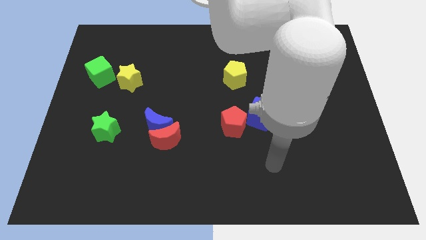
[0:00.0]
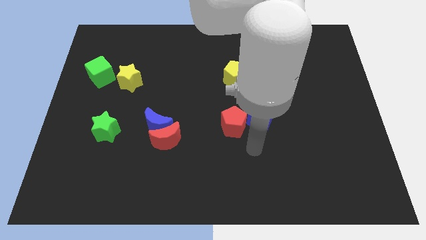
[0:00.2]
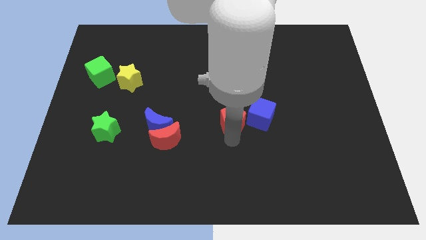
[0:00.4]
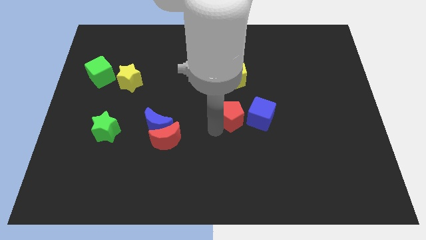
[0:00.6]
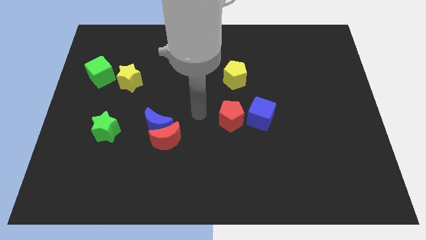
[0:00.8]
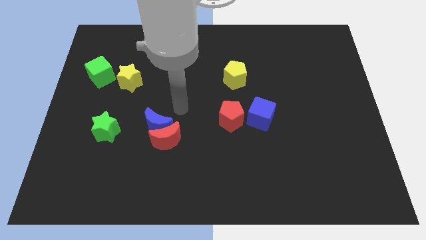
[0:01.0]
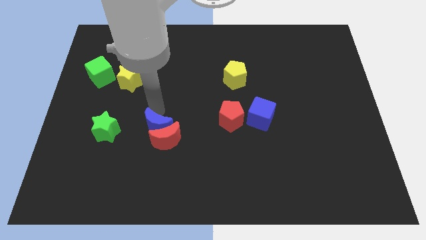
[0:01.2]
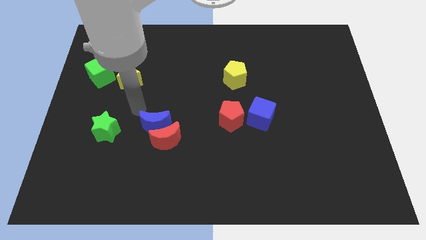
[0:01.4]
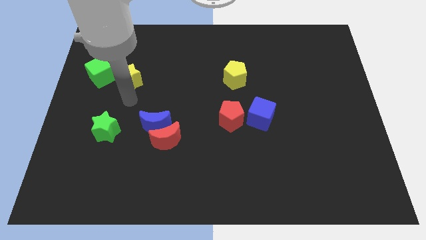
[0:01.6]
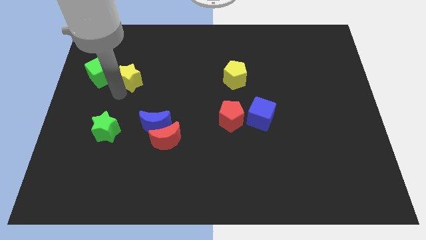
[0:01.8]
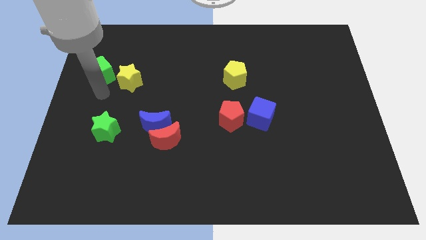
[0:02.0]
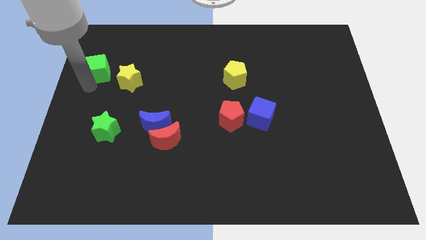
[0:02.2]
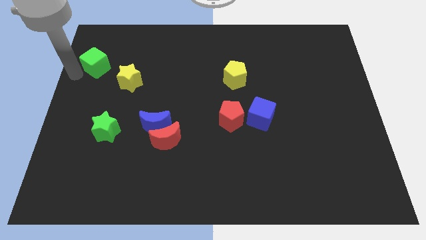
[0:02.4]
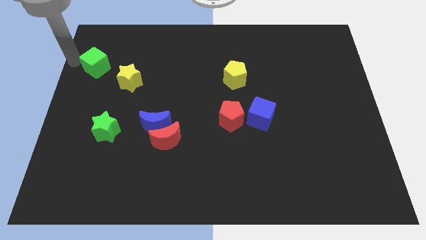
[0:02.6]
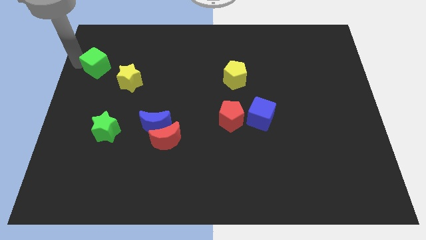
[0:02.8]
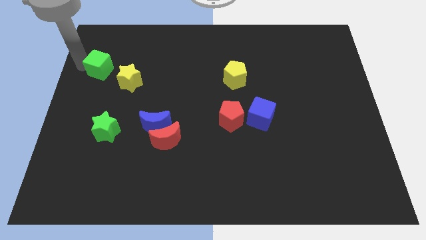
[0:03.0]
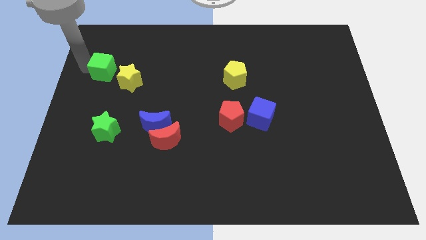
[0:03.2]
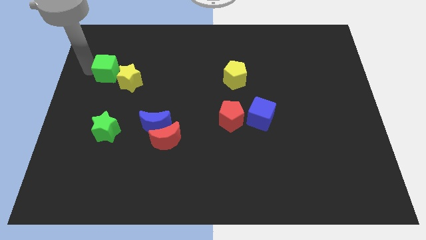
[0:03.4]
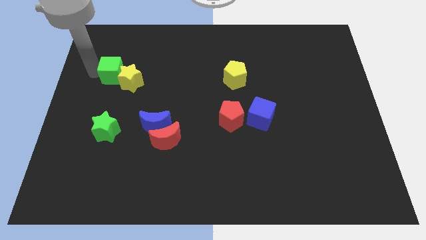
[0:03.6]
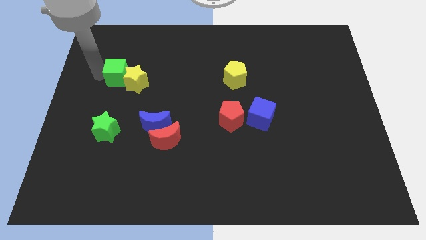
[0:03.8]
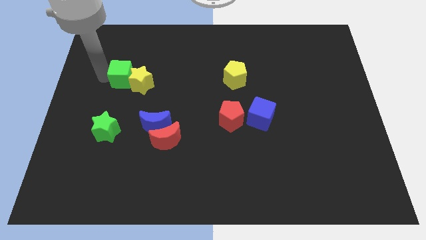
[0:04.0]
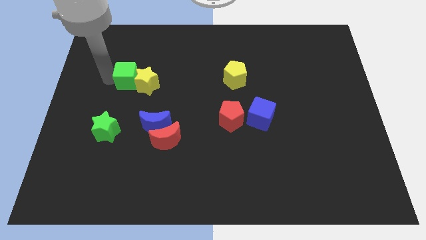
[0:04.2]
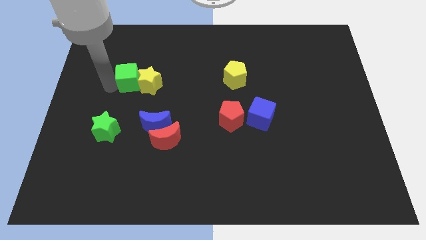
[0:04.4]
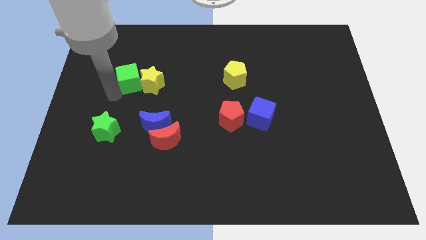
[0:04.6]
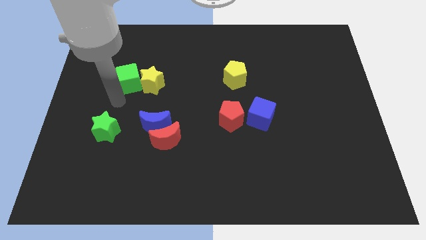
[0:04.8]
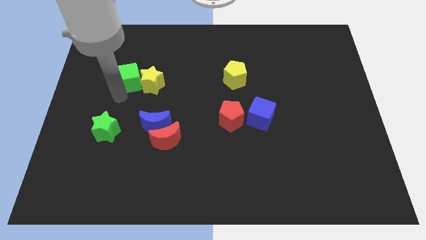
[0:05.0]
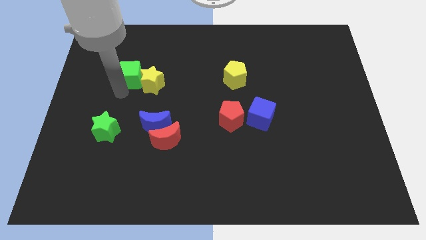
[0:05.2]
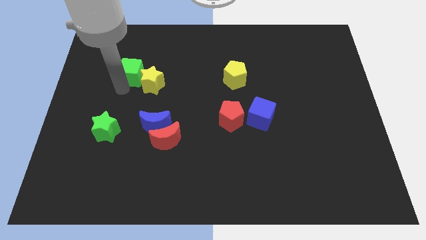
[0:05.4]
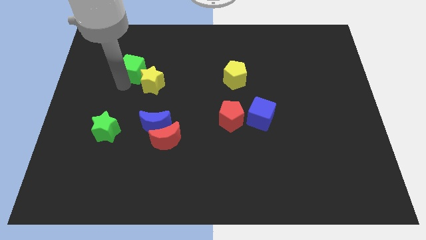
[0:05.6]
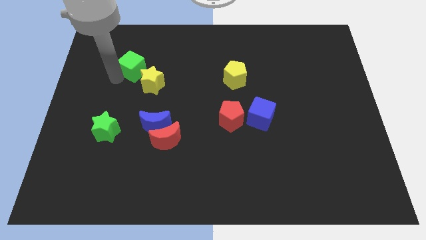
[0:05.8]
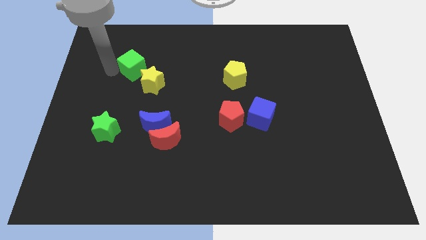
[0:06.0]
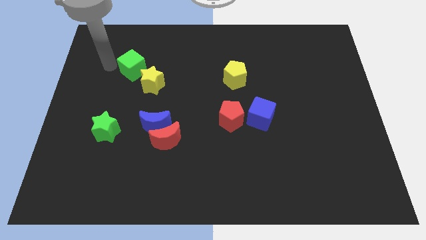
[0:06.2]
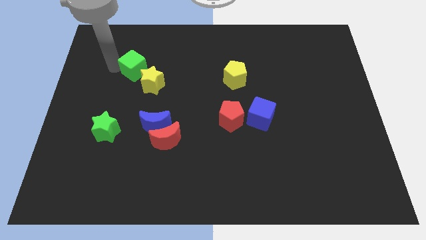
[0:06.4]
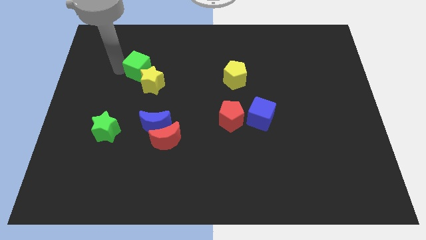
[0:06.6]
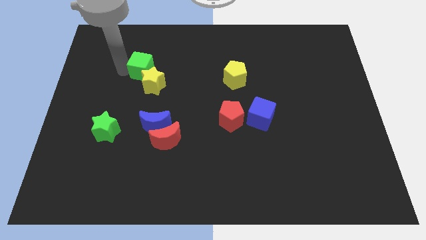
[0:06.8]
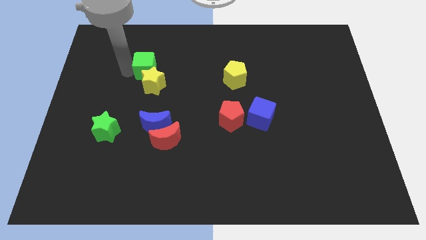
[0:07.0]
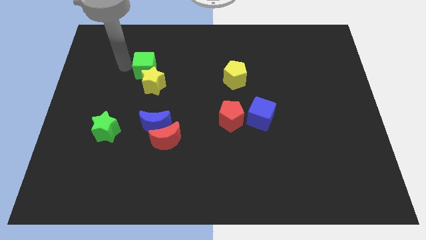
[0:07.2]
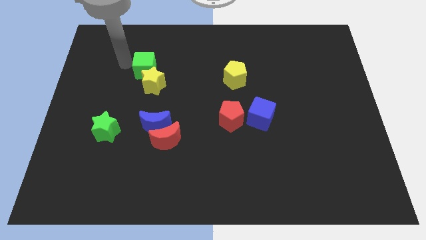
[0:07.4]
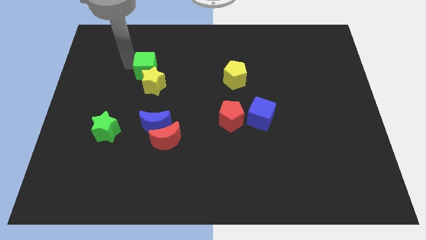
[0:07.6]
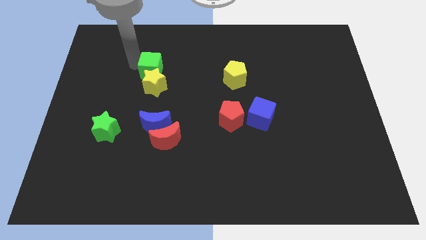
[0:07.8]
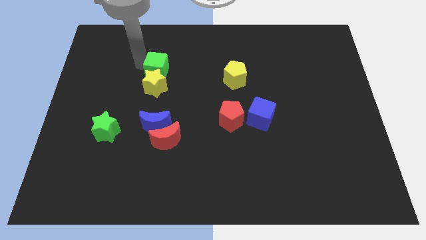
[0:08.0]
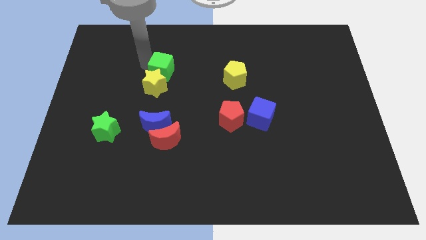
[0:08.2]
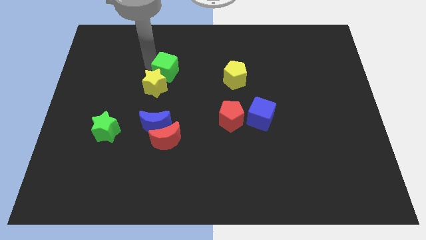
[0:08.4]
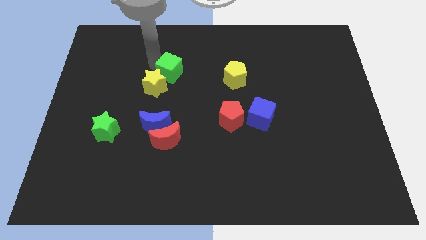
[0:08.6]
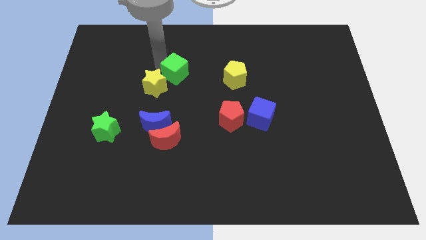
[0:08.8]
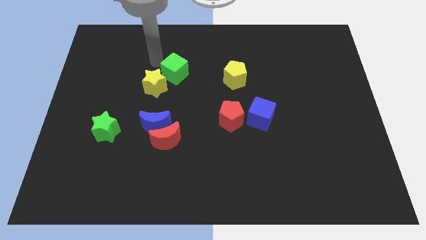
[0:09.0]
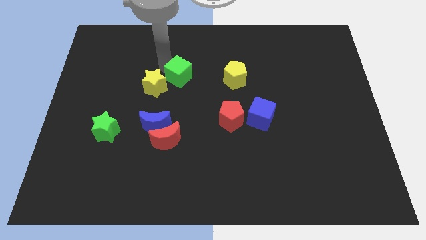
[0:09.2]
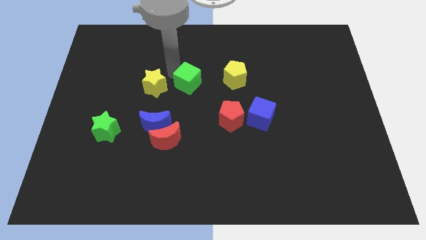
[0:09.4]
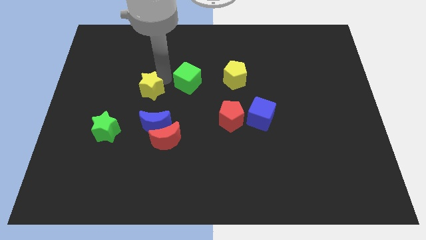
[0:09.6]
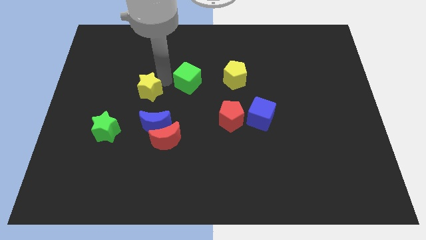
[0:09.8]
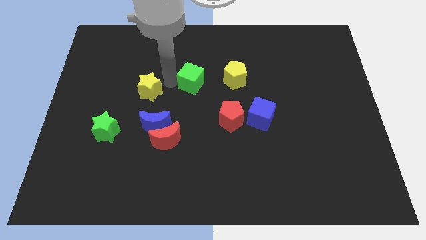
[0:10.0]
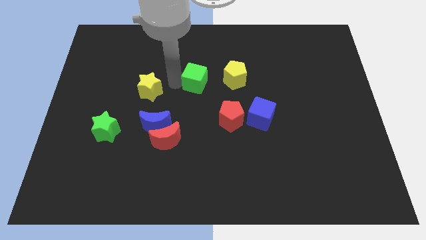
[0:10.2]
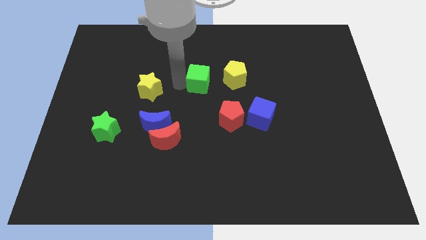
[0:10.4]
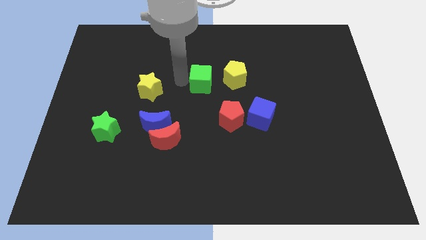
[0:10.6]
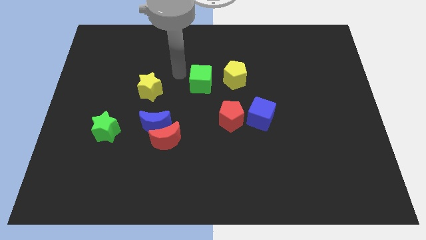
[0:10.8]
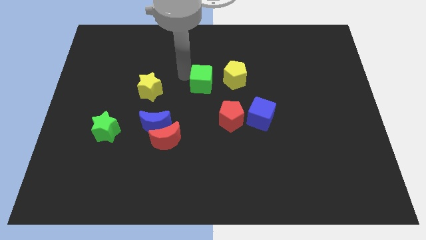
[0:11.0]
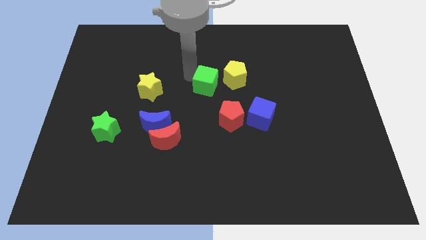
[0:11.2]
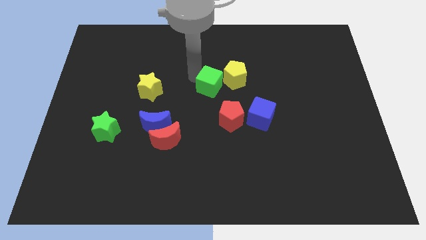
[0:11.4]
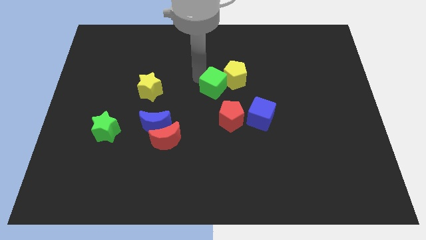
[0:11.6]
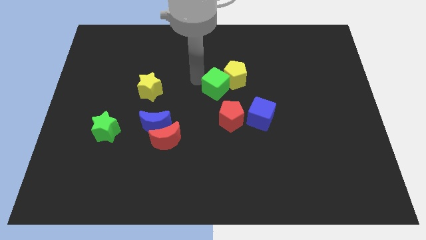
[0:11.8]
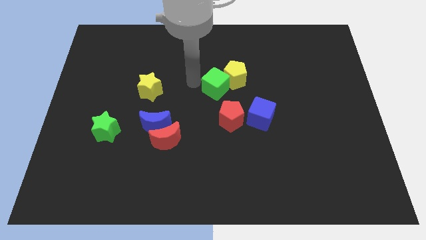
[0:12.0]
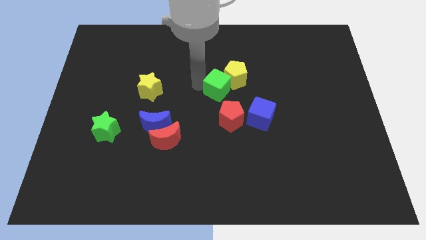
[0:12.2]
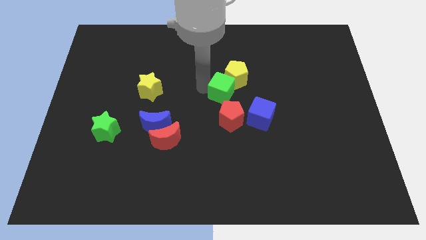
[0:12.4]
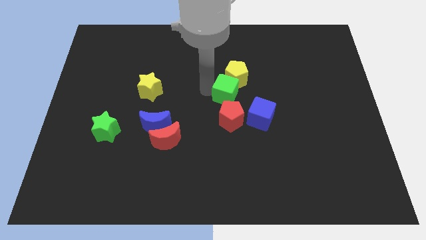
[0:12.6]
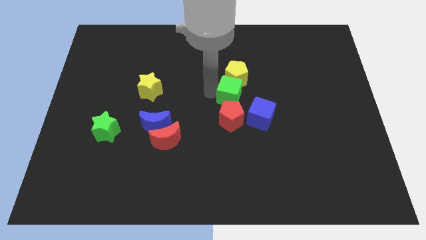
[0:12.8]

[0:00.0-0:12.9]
push the green cube to the bottom right of the yellow pentagon
